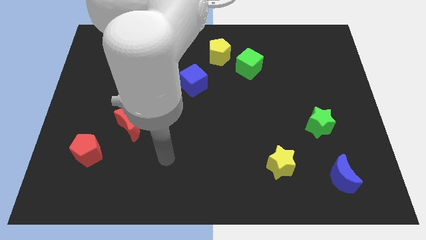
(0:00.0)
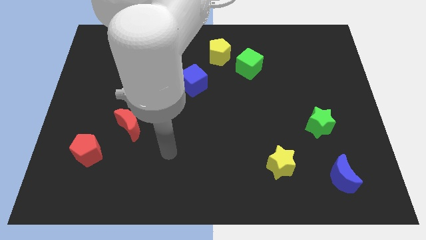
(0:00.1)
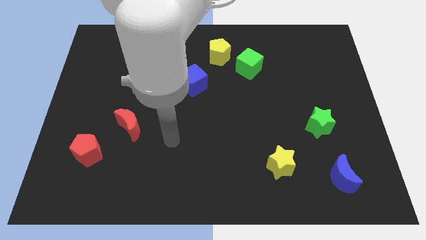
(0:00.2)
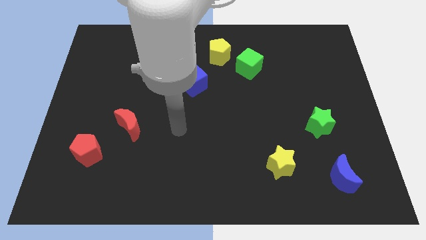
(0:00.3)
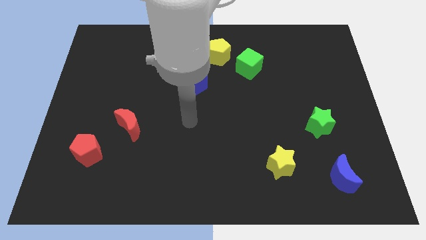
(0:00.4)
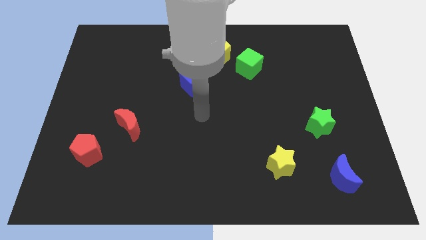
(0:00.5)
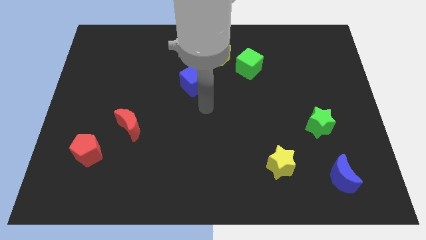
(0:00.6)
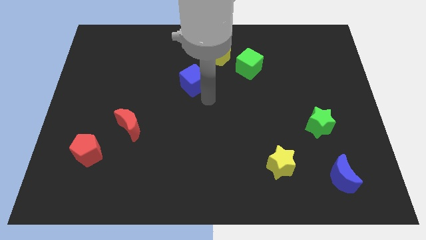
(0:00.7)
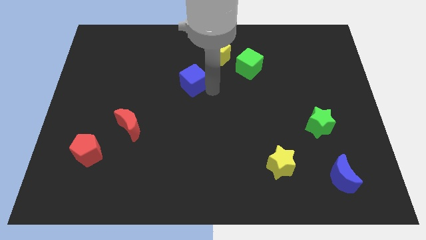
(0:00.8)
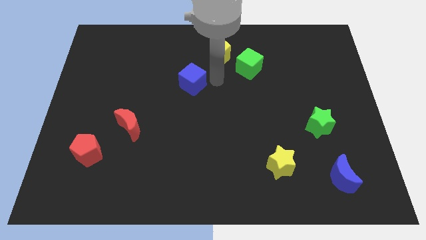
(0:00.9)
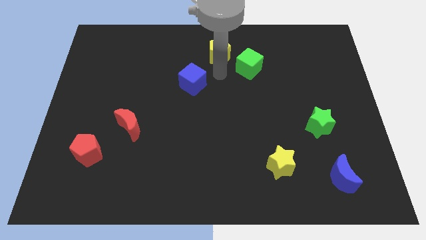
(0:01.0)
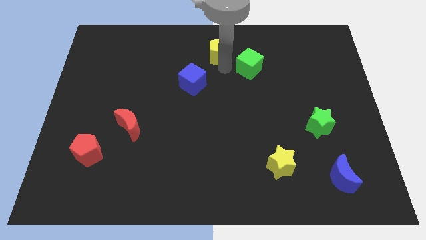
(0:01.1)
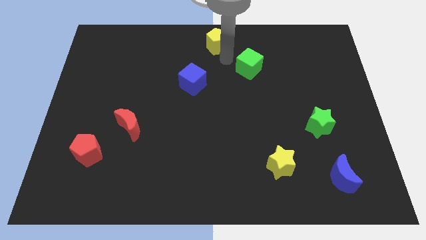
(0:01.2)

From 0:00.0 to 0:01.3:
pull the green cube apart from the yellow pentagon

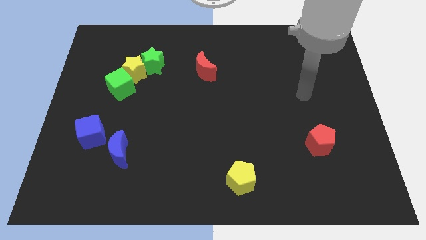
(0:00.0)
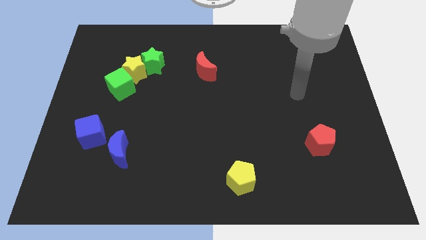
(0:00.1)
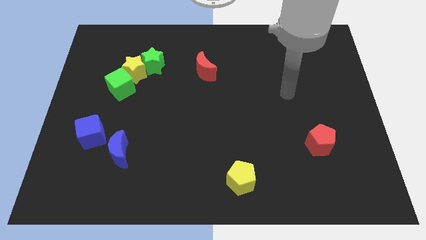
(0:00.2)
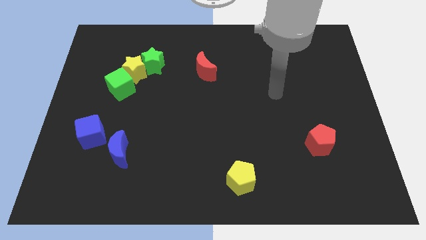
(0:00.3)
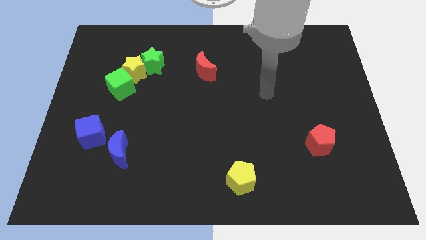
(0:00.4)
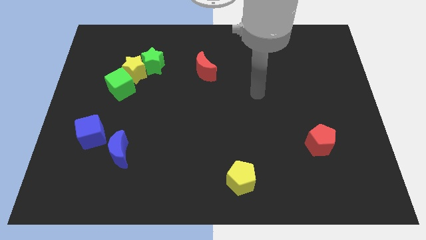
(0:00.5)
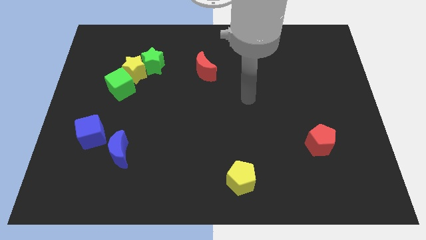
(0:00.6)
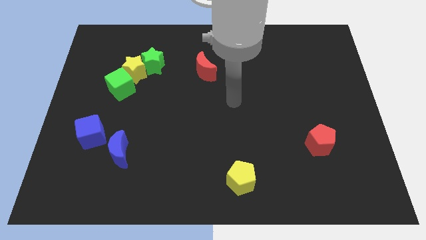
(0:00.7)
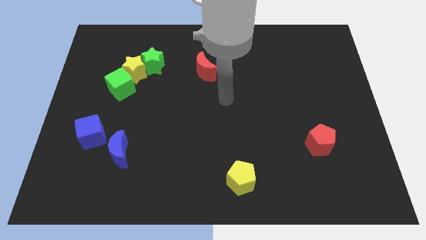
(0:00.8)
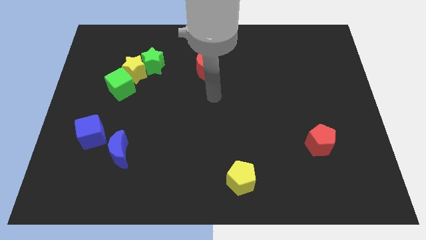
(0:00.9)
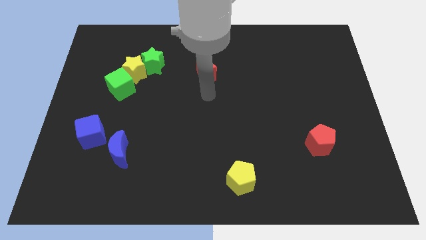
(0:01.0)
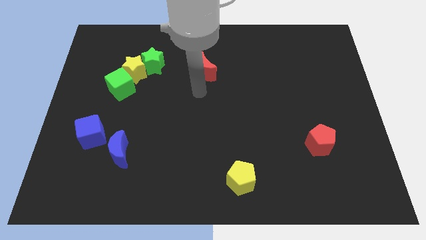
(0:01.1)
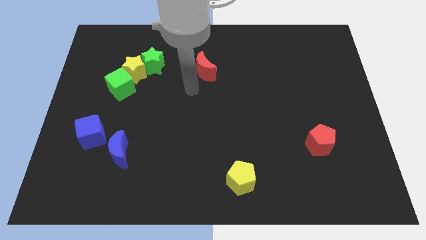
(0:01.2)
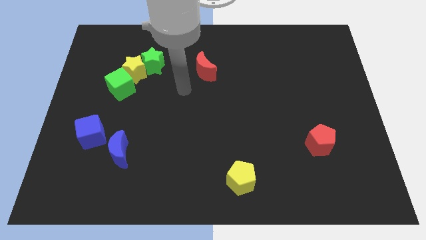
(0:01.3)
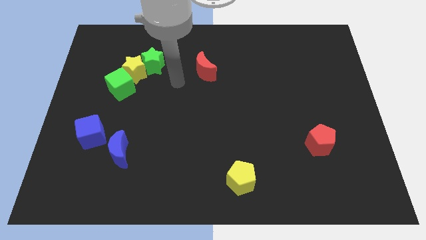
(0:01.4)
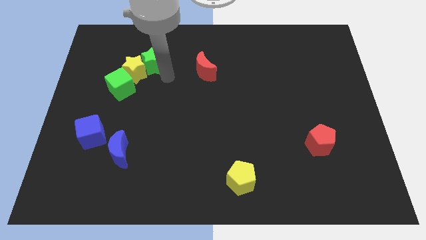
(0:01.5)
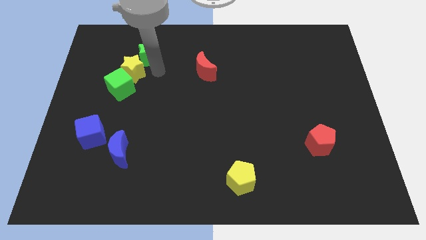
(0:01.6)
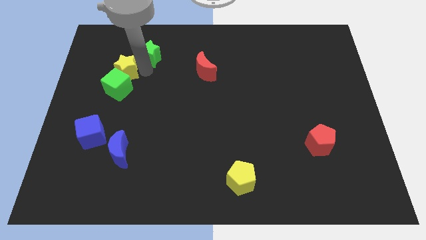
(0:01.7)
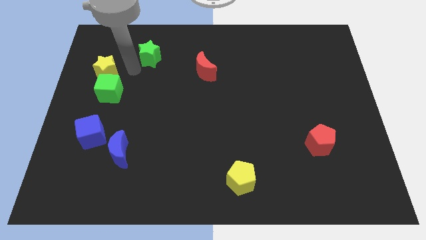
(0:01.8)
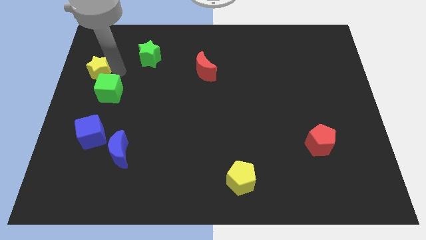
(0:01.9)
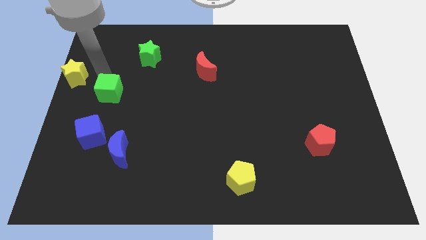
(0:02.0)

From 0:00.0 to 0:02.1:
pull the green cube apart from the yellow star

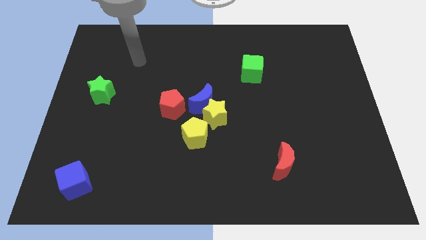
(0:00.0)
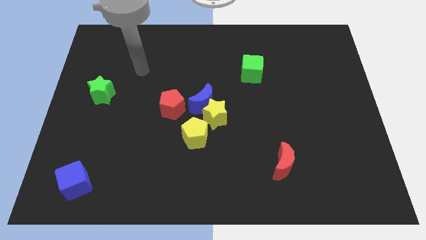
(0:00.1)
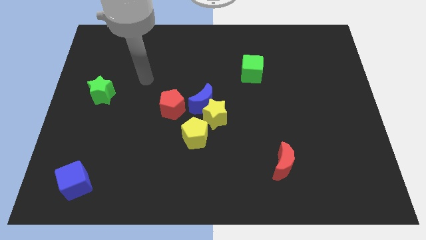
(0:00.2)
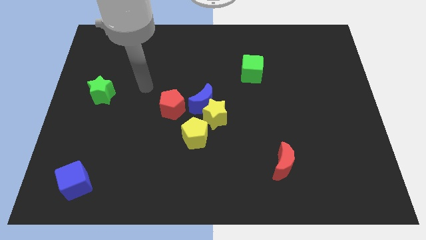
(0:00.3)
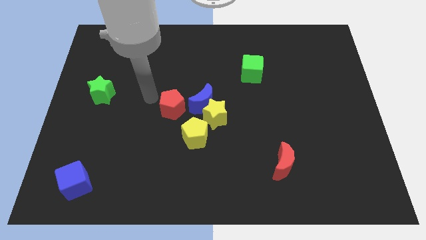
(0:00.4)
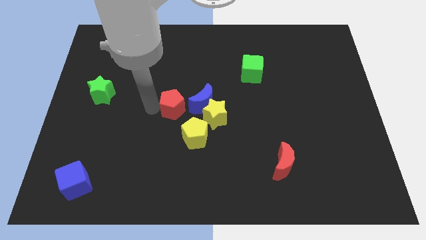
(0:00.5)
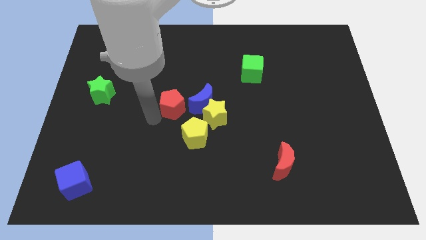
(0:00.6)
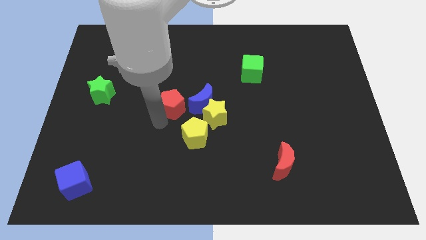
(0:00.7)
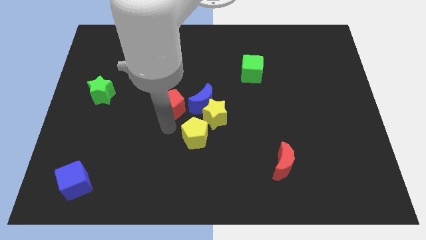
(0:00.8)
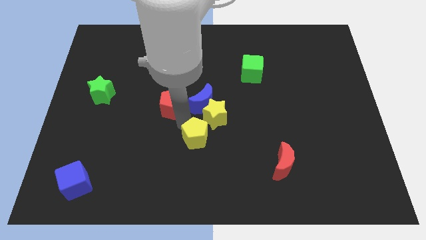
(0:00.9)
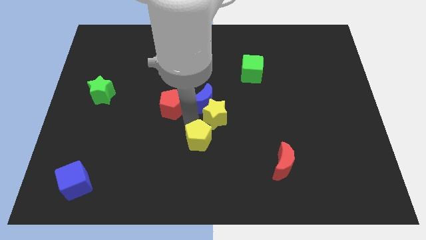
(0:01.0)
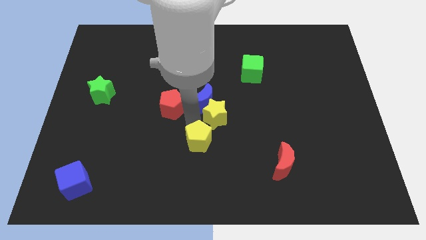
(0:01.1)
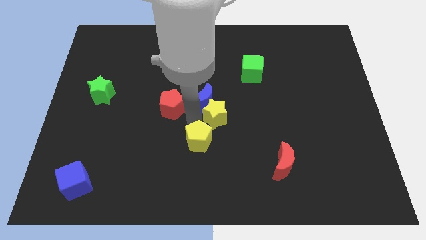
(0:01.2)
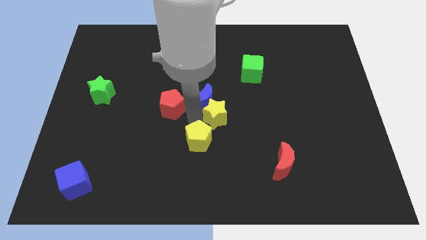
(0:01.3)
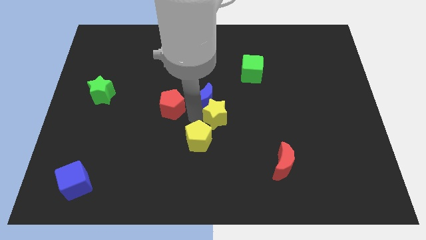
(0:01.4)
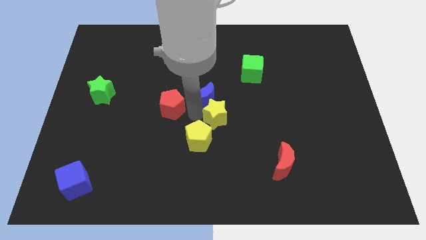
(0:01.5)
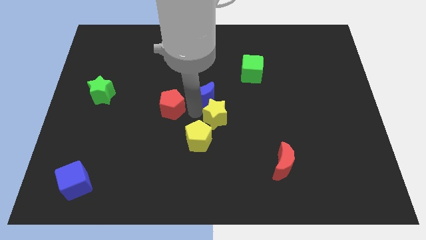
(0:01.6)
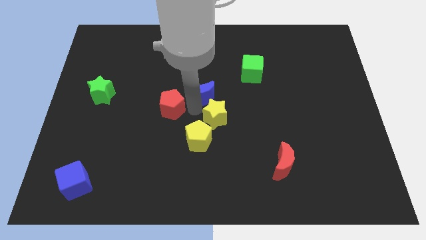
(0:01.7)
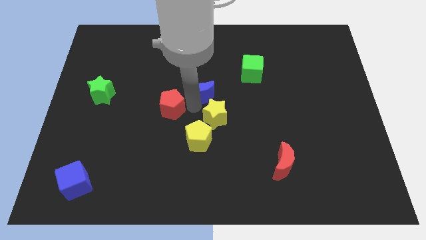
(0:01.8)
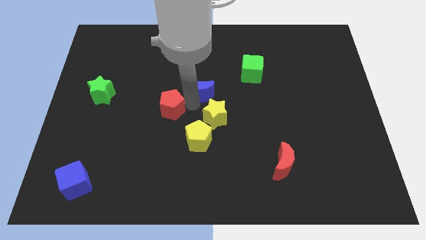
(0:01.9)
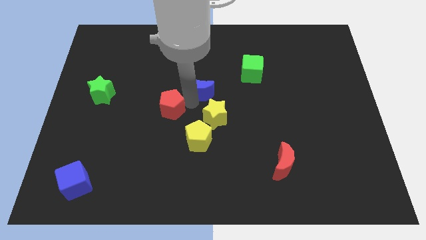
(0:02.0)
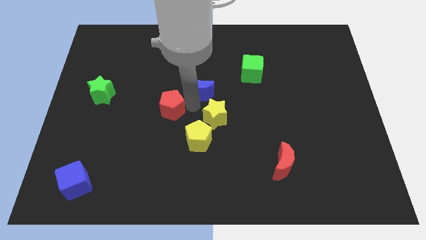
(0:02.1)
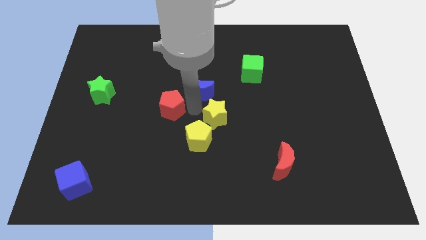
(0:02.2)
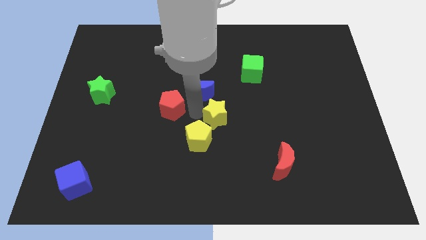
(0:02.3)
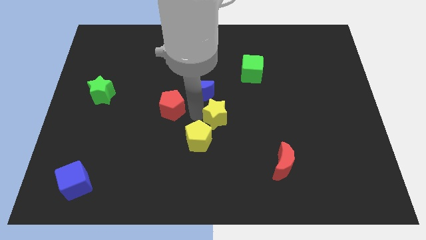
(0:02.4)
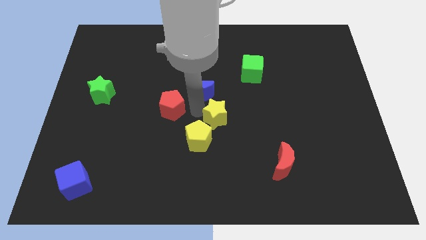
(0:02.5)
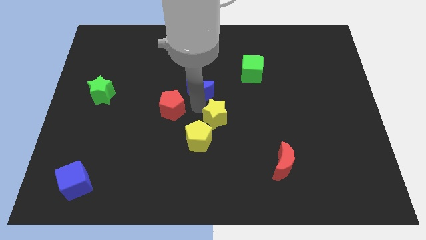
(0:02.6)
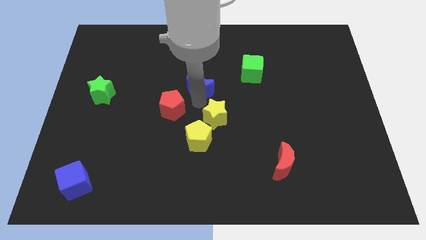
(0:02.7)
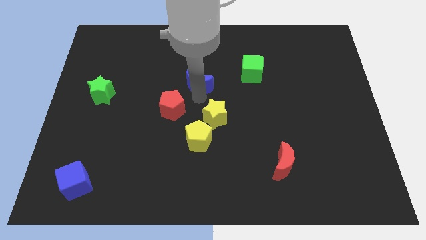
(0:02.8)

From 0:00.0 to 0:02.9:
separate the blue moon from the yellow star, red pentagon, and yellow pentagon

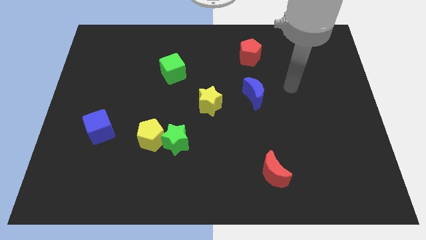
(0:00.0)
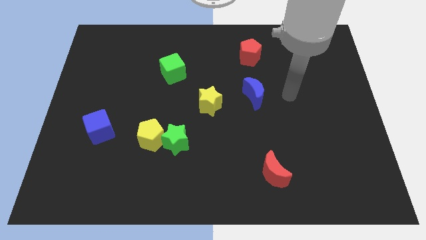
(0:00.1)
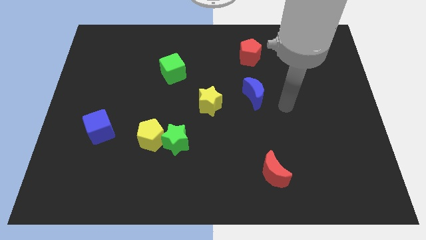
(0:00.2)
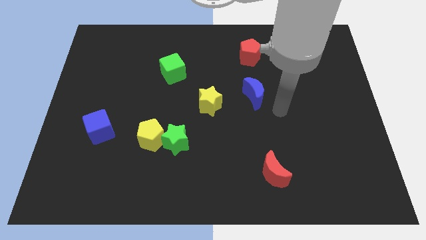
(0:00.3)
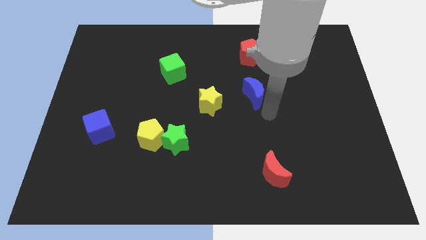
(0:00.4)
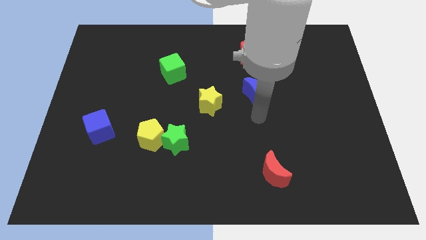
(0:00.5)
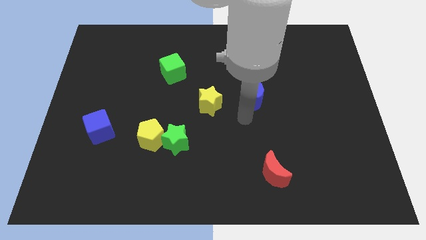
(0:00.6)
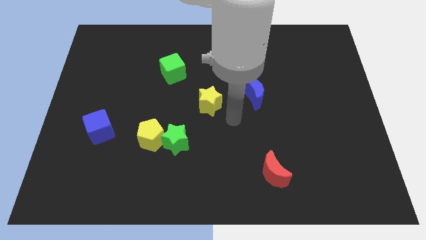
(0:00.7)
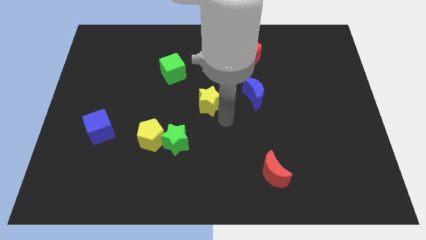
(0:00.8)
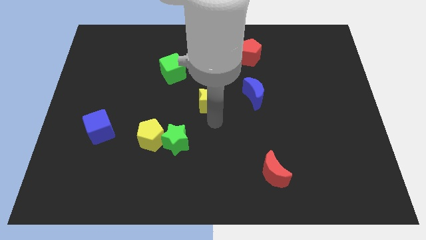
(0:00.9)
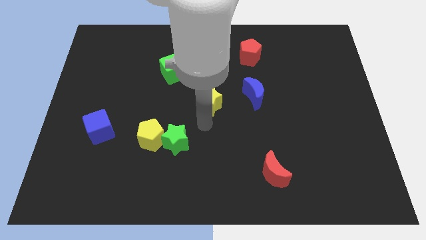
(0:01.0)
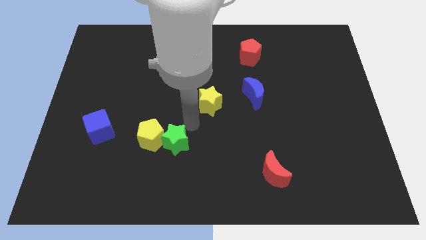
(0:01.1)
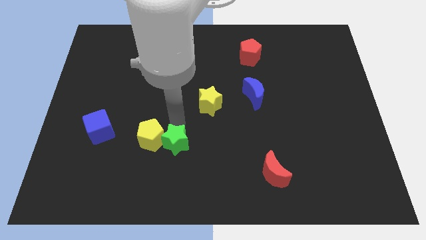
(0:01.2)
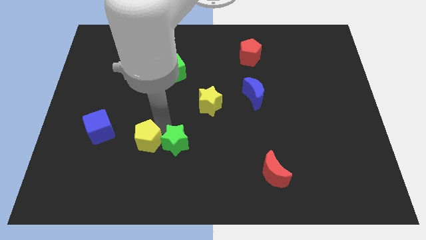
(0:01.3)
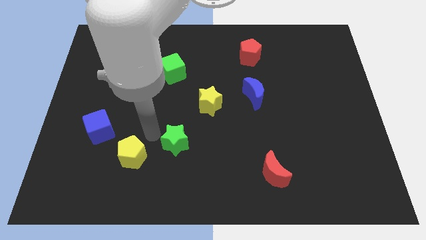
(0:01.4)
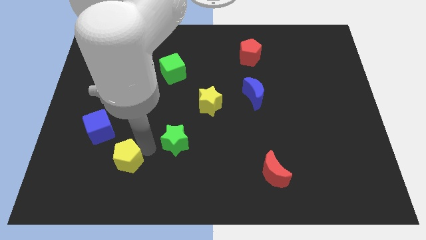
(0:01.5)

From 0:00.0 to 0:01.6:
pull the green star apart from the yellow pentagon

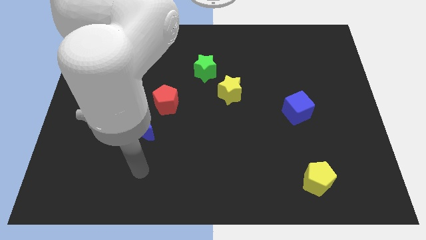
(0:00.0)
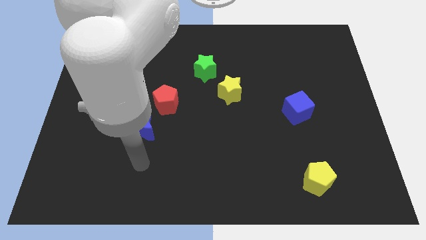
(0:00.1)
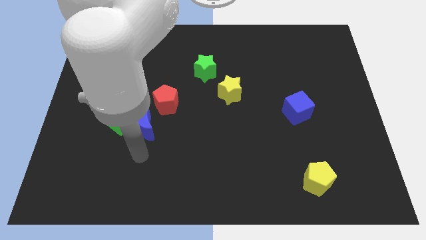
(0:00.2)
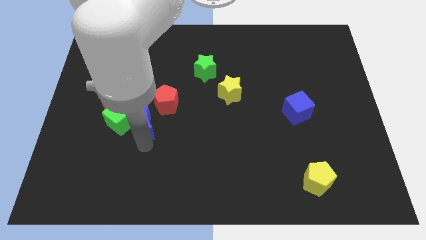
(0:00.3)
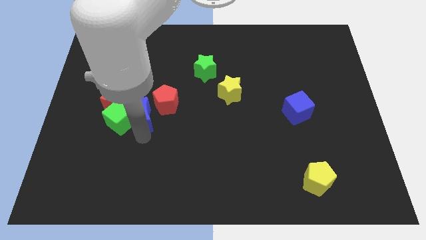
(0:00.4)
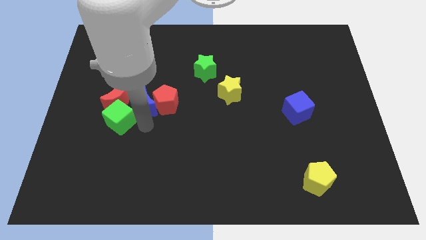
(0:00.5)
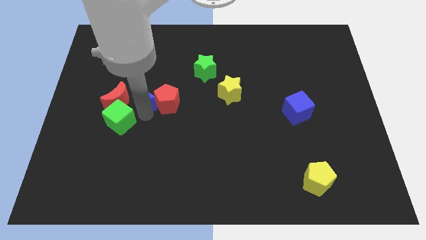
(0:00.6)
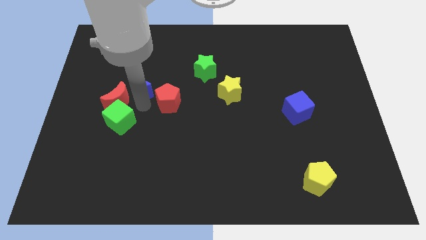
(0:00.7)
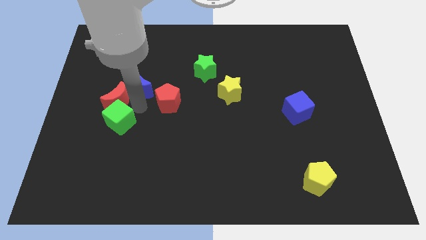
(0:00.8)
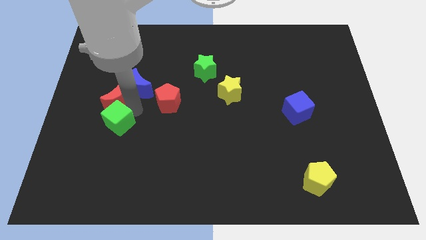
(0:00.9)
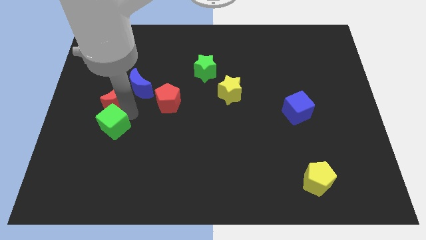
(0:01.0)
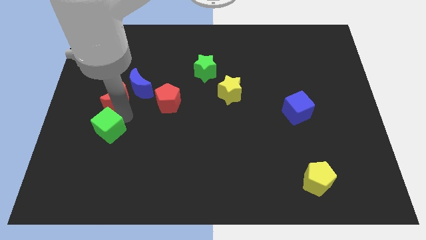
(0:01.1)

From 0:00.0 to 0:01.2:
pull the green cube apart from the red moon and blue moon

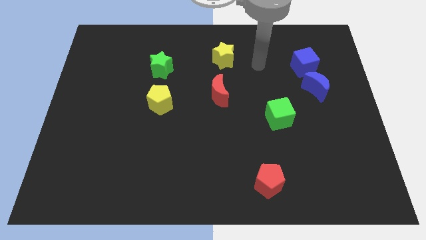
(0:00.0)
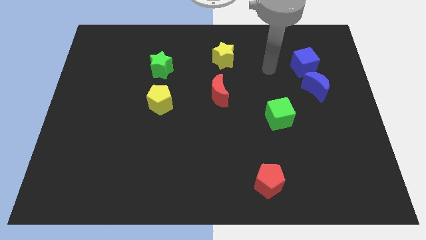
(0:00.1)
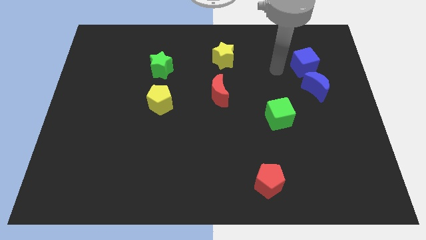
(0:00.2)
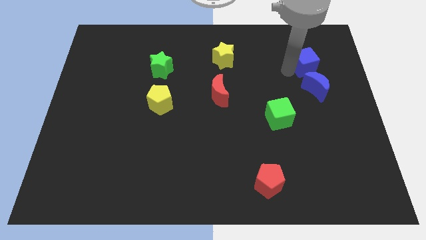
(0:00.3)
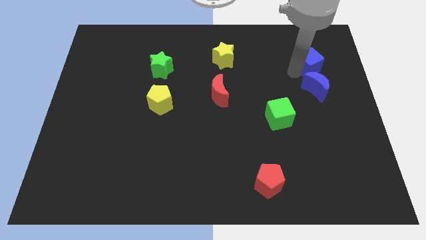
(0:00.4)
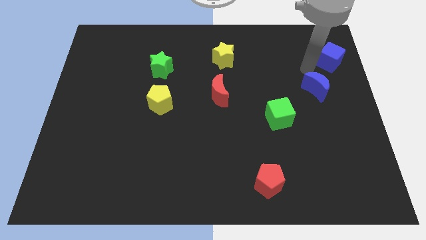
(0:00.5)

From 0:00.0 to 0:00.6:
separate the blue moon from the blue cube
